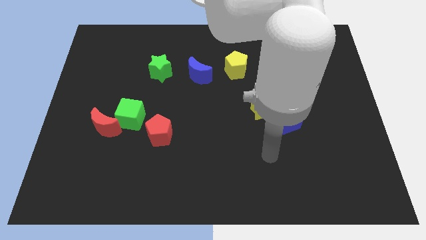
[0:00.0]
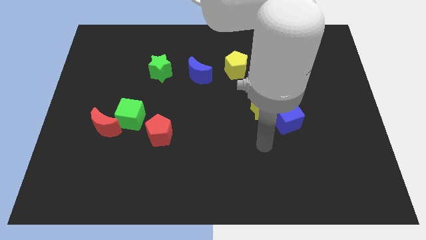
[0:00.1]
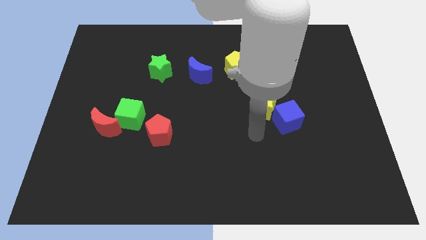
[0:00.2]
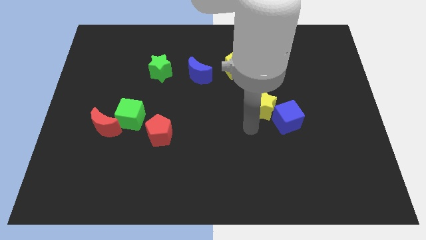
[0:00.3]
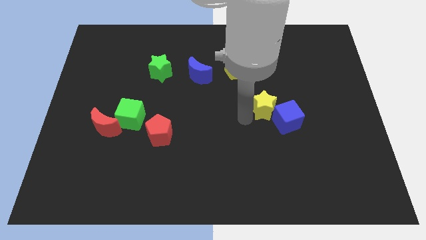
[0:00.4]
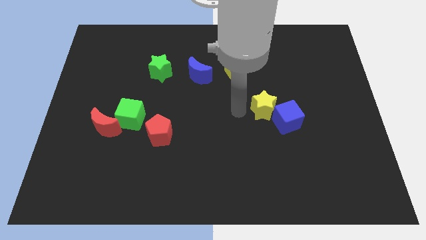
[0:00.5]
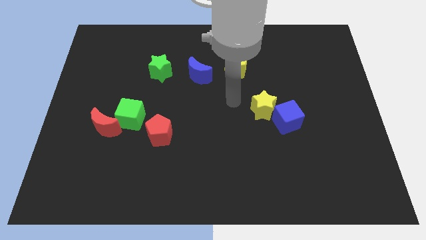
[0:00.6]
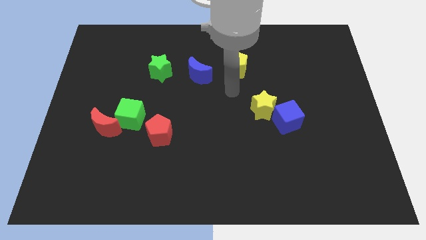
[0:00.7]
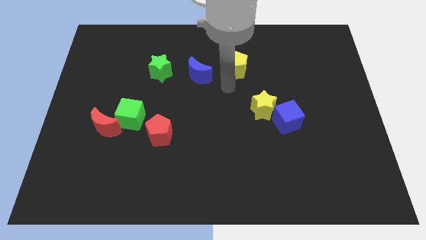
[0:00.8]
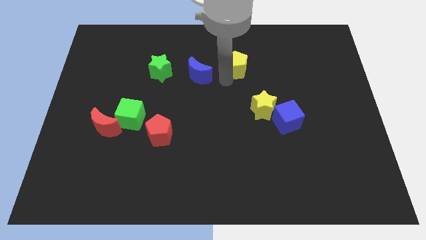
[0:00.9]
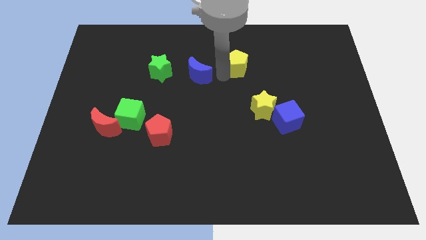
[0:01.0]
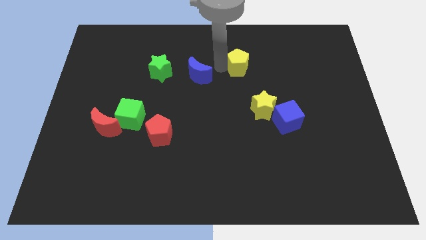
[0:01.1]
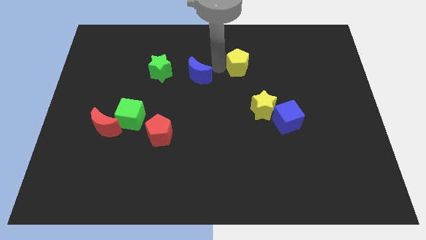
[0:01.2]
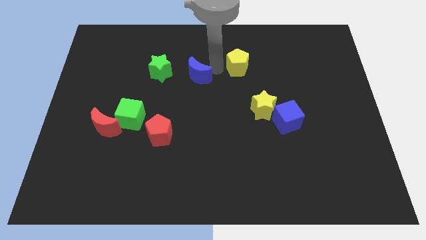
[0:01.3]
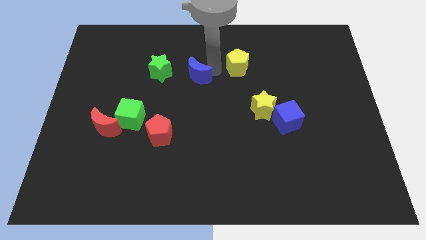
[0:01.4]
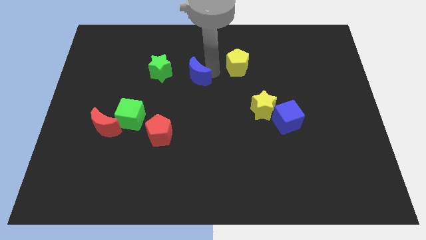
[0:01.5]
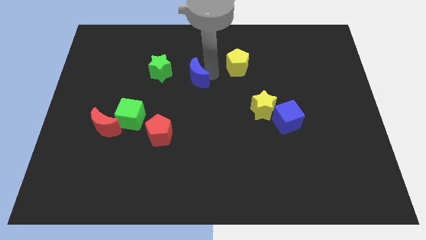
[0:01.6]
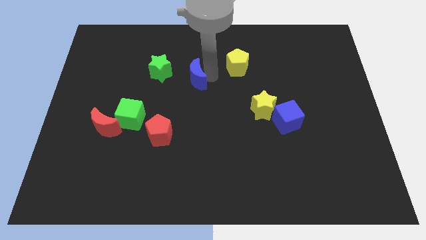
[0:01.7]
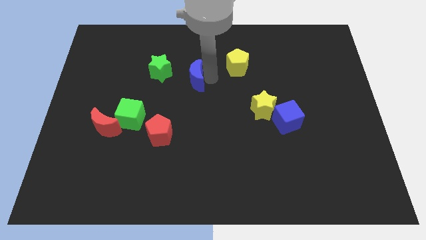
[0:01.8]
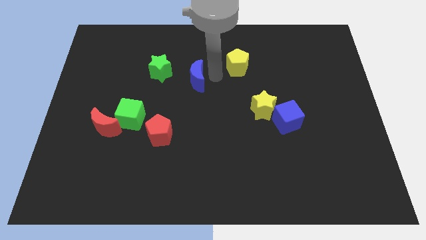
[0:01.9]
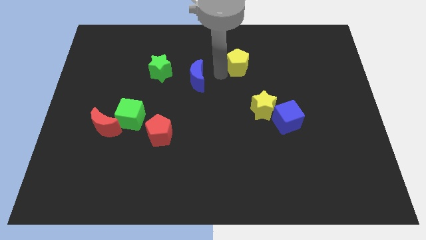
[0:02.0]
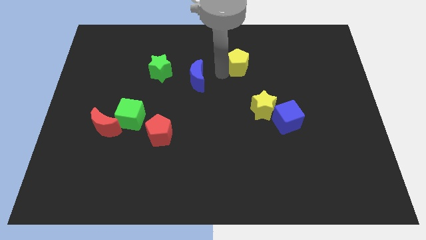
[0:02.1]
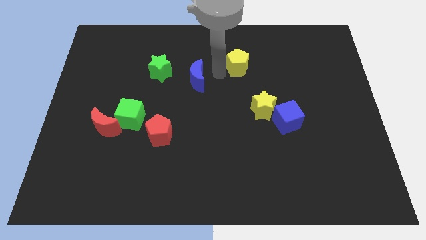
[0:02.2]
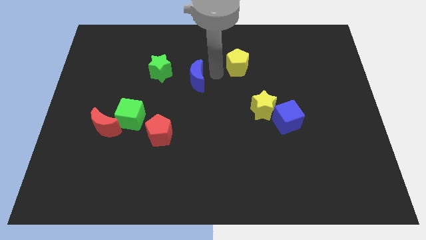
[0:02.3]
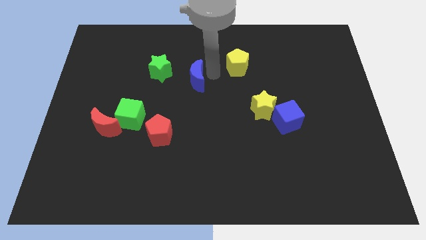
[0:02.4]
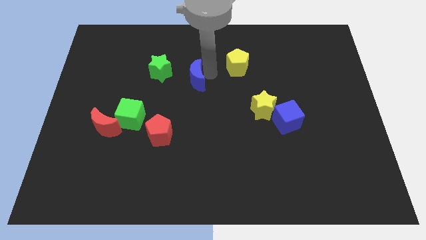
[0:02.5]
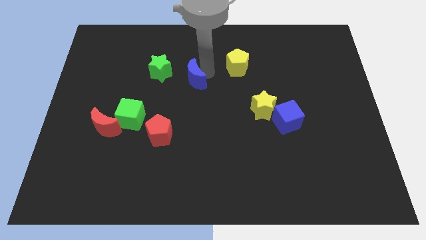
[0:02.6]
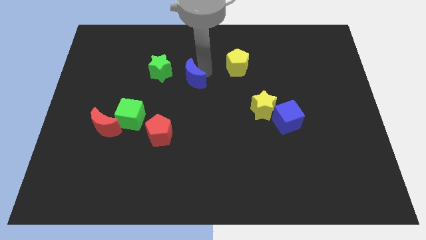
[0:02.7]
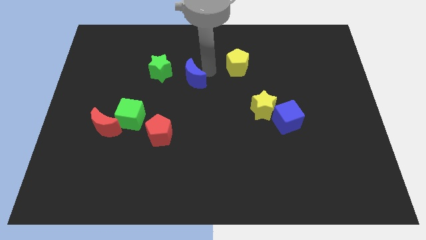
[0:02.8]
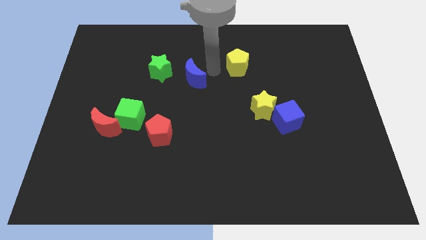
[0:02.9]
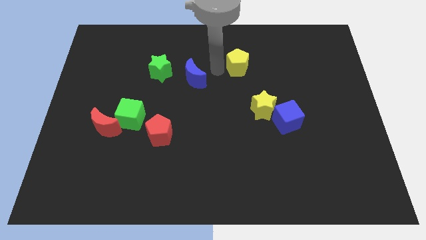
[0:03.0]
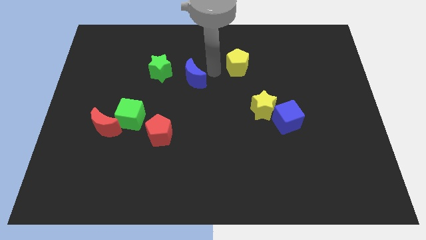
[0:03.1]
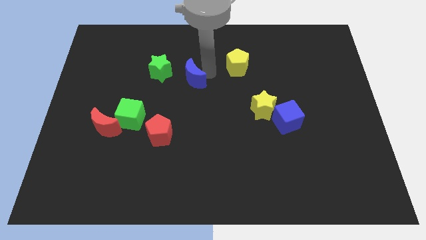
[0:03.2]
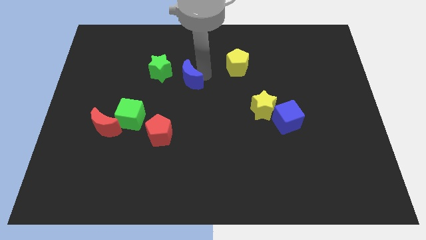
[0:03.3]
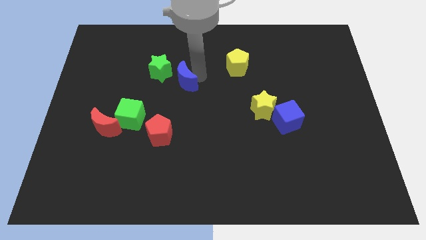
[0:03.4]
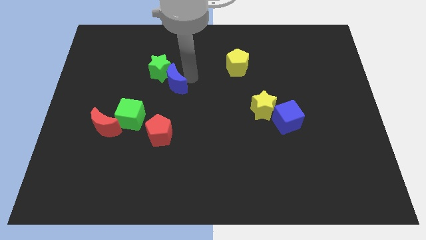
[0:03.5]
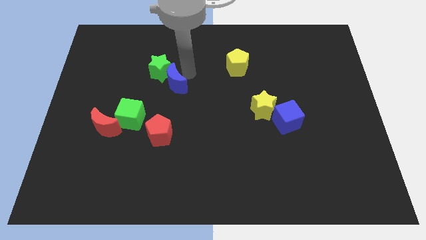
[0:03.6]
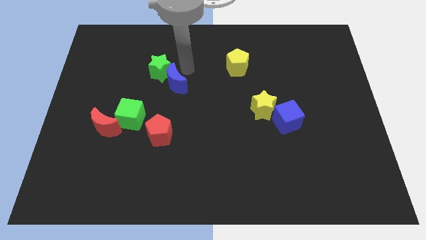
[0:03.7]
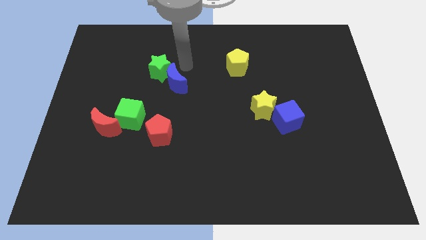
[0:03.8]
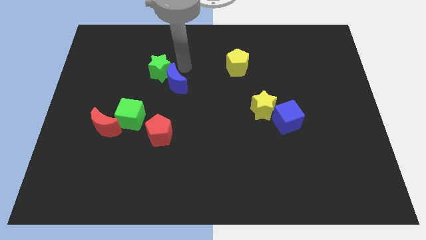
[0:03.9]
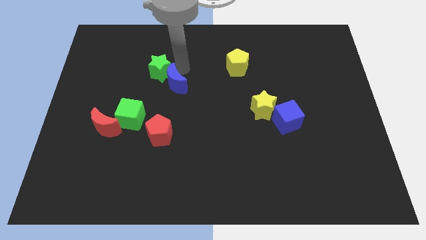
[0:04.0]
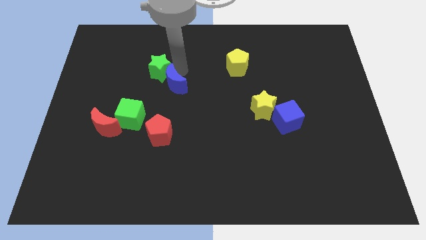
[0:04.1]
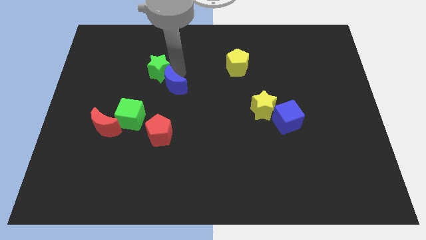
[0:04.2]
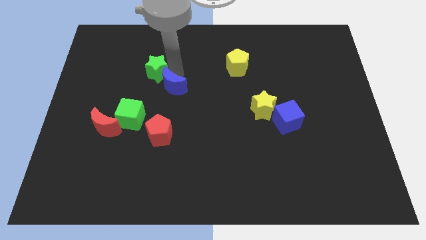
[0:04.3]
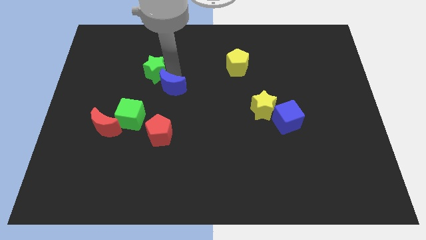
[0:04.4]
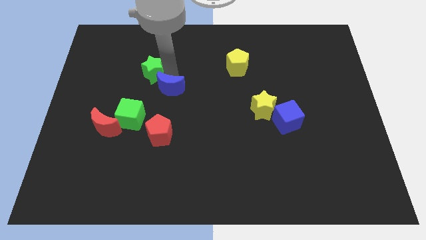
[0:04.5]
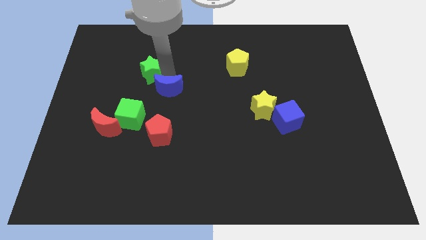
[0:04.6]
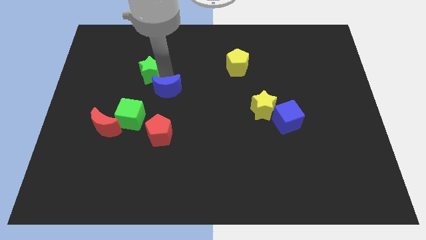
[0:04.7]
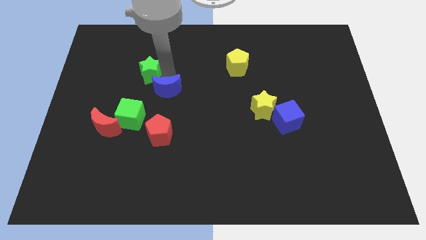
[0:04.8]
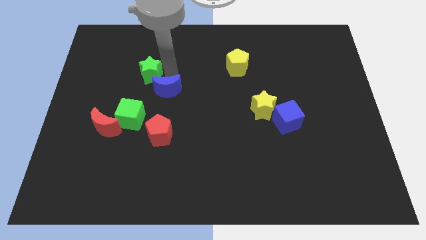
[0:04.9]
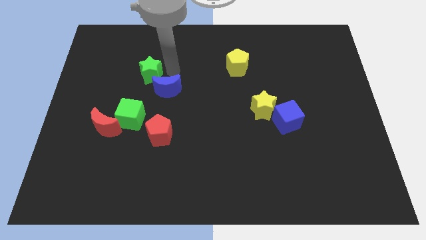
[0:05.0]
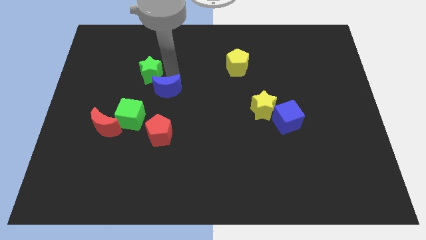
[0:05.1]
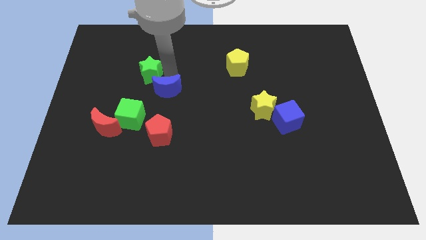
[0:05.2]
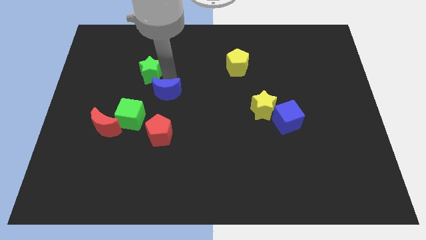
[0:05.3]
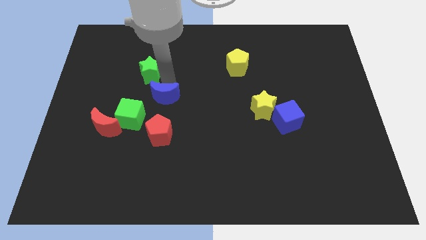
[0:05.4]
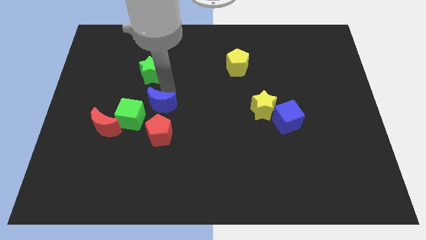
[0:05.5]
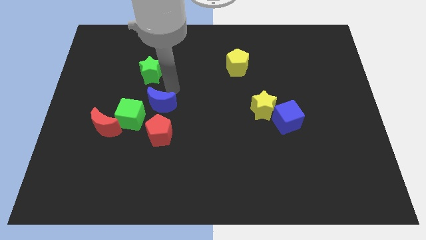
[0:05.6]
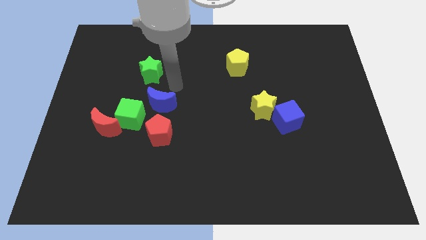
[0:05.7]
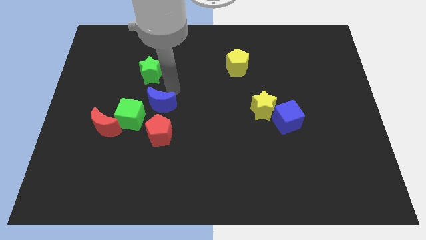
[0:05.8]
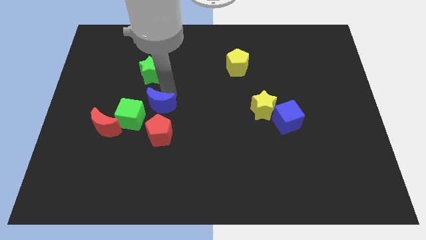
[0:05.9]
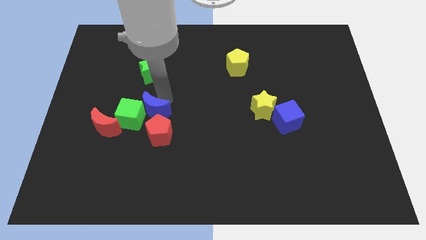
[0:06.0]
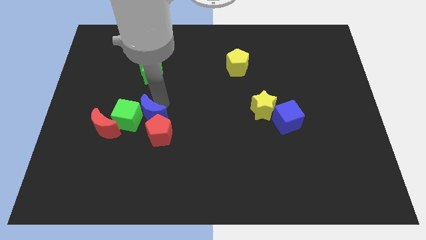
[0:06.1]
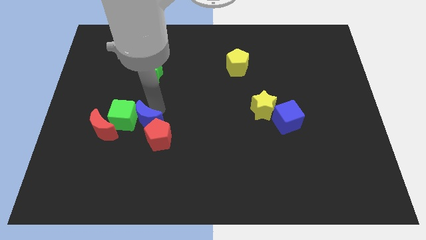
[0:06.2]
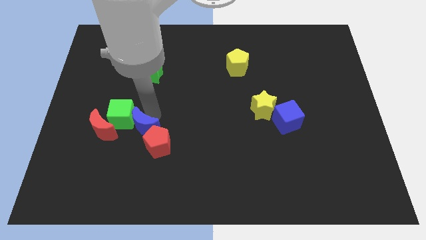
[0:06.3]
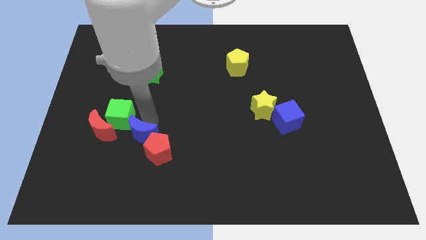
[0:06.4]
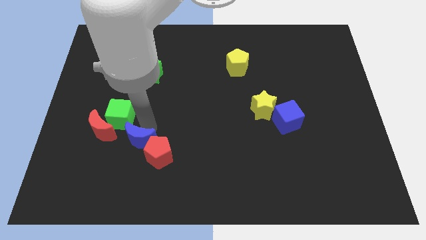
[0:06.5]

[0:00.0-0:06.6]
put the blue moon to the bottom right side of the red moon
